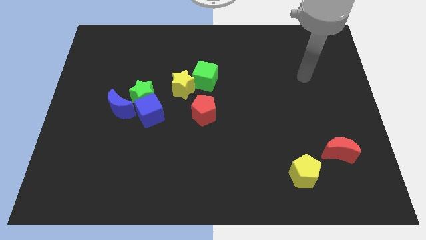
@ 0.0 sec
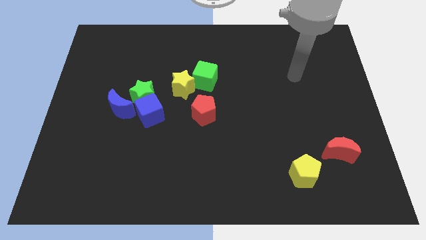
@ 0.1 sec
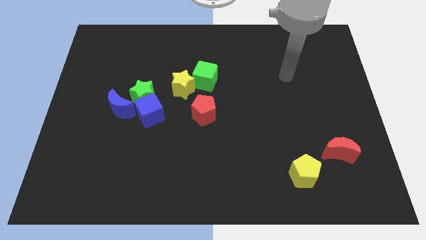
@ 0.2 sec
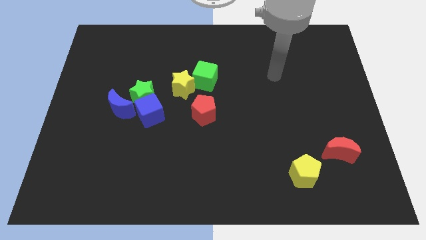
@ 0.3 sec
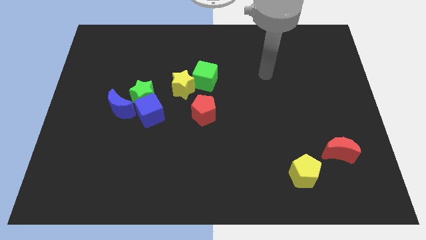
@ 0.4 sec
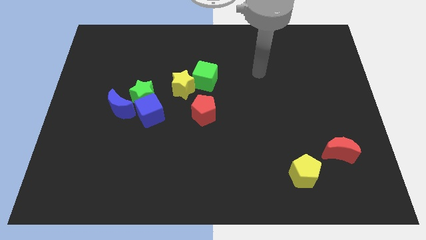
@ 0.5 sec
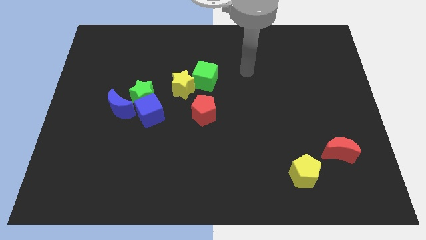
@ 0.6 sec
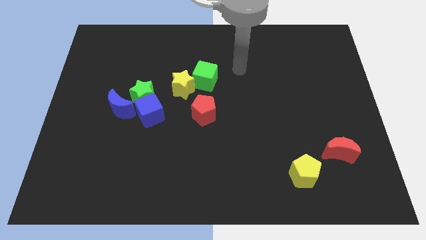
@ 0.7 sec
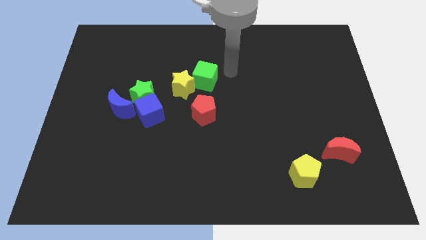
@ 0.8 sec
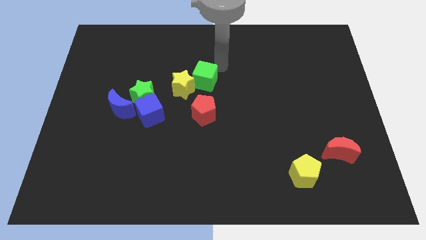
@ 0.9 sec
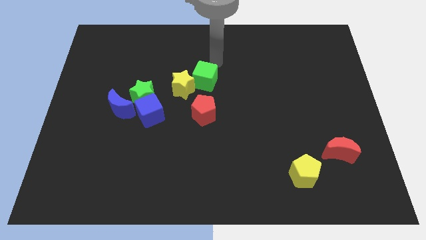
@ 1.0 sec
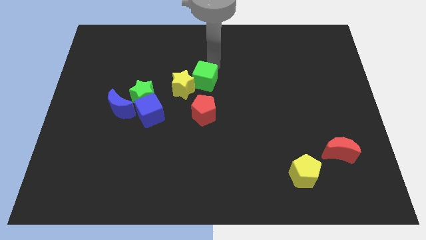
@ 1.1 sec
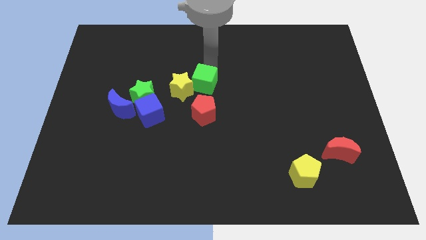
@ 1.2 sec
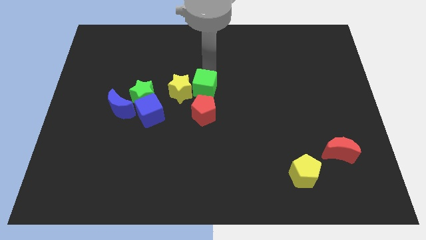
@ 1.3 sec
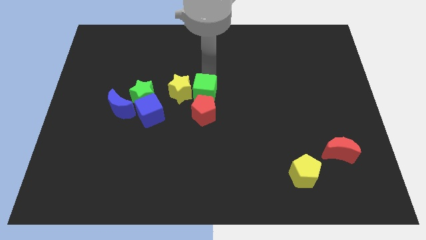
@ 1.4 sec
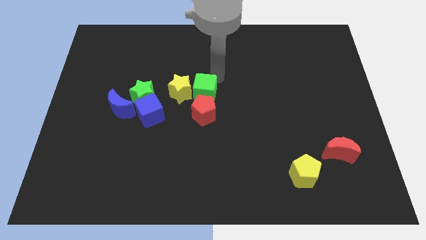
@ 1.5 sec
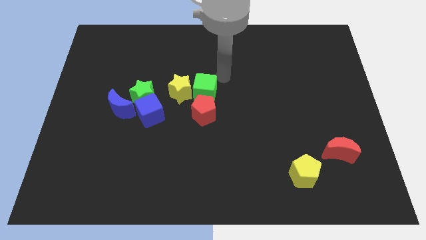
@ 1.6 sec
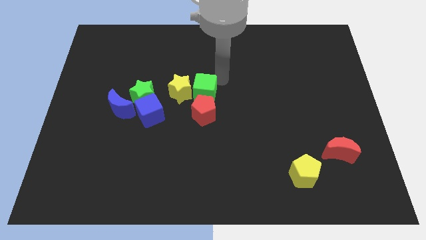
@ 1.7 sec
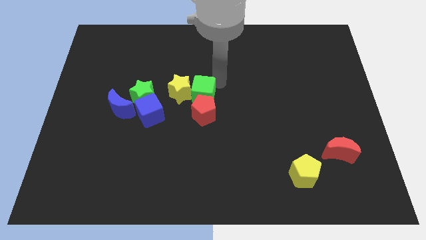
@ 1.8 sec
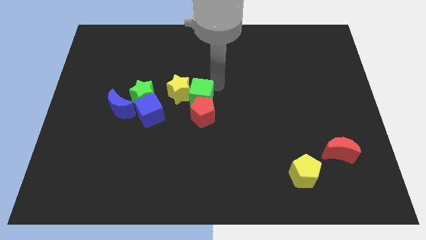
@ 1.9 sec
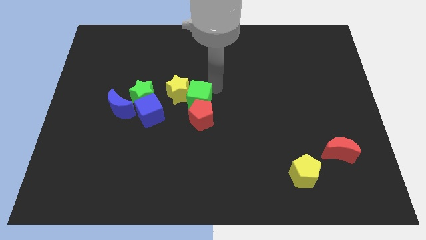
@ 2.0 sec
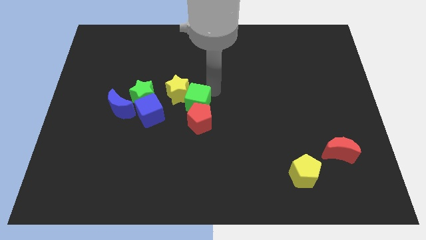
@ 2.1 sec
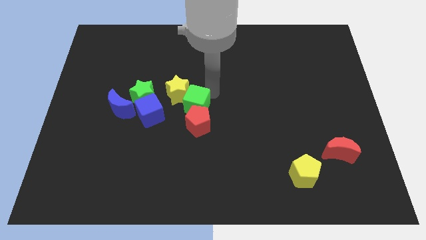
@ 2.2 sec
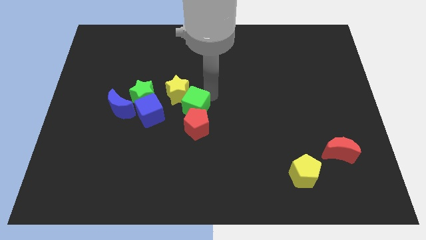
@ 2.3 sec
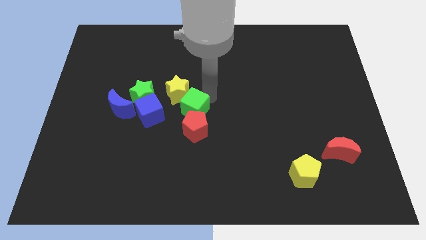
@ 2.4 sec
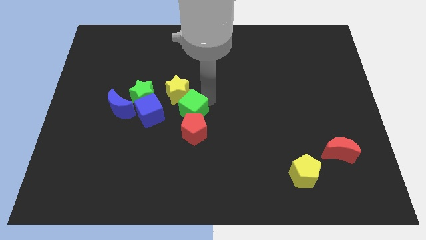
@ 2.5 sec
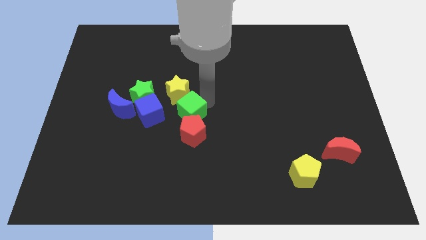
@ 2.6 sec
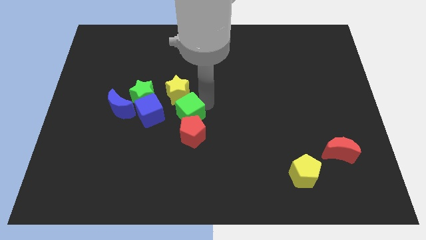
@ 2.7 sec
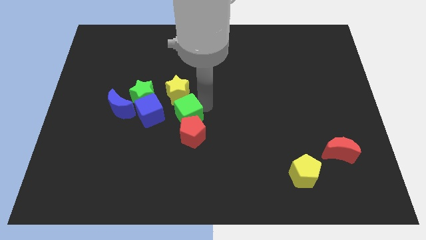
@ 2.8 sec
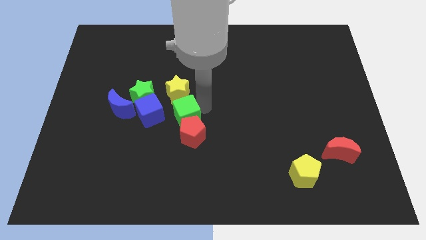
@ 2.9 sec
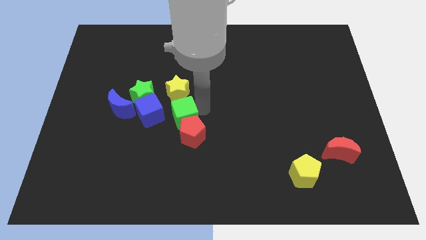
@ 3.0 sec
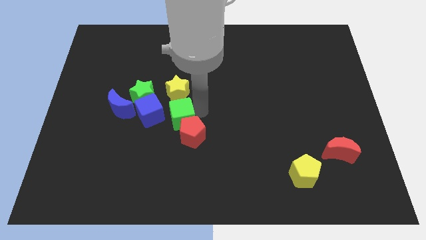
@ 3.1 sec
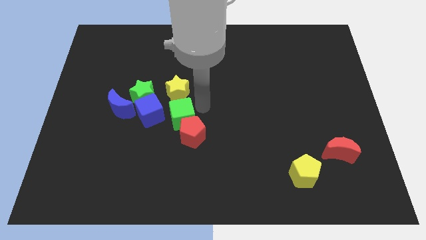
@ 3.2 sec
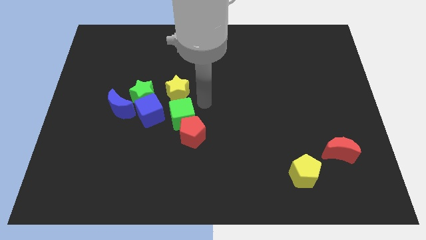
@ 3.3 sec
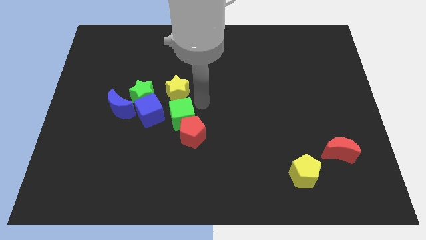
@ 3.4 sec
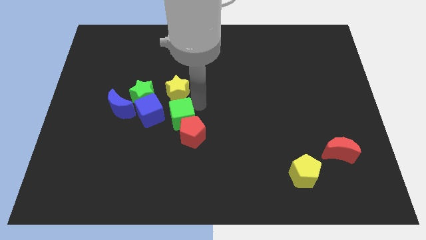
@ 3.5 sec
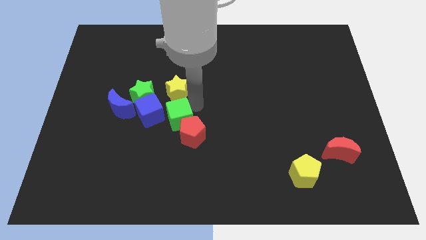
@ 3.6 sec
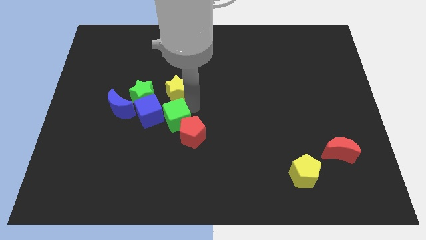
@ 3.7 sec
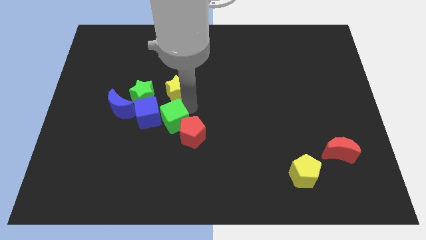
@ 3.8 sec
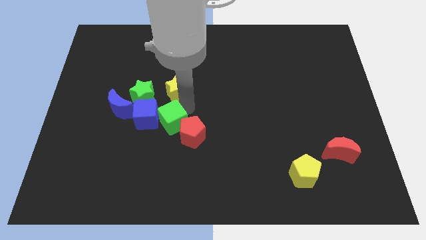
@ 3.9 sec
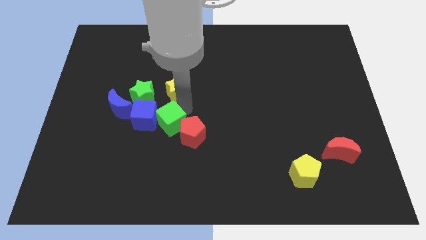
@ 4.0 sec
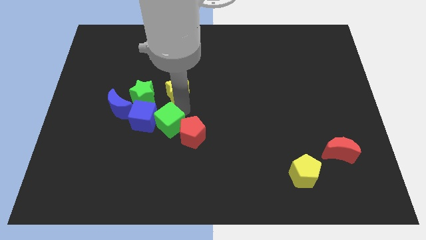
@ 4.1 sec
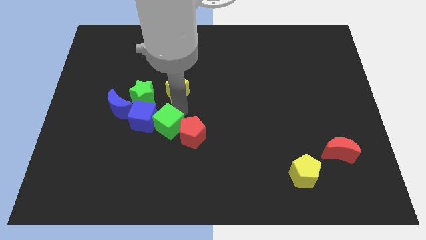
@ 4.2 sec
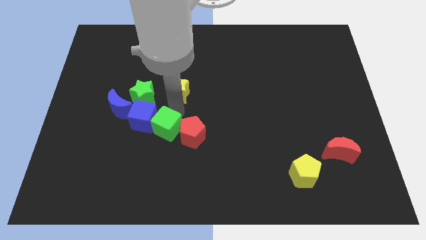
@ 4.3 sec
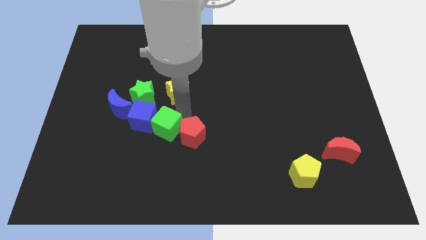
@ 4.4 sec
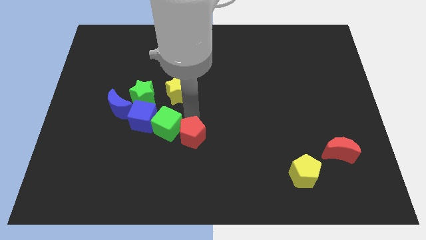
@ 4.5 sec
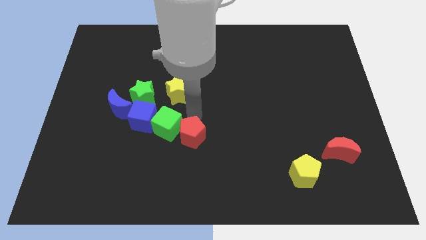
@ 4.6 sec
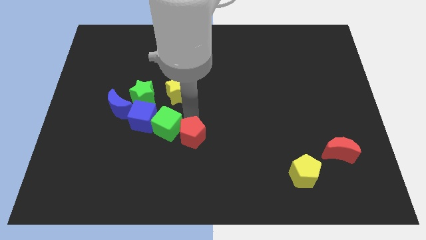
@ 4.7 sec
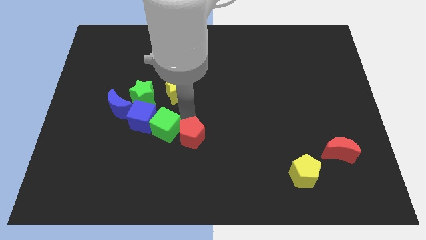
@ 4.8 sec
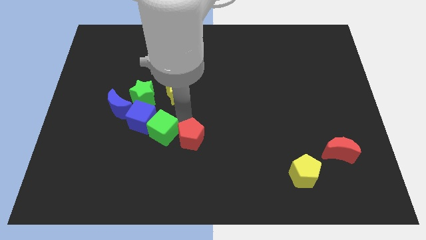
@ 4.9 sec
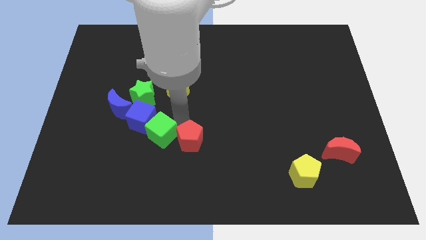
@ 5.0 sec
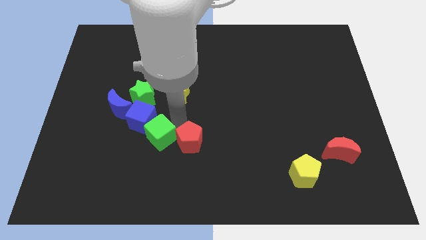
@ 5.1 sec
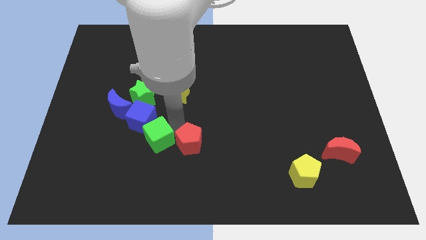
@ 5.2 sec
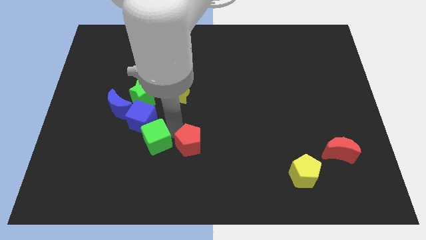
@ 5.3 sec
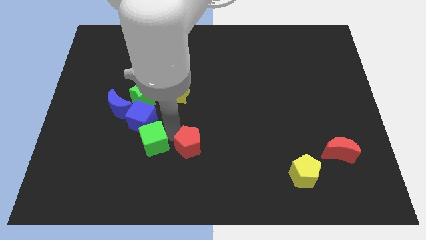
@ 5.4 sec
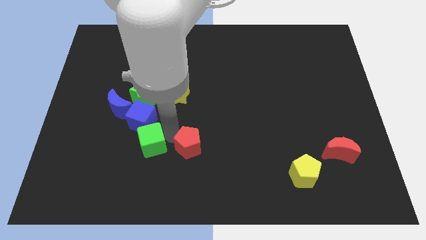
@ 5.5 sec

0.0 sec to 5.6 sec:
slide the green cube downwards and then left

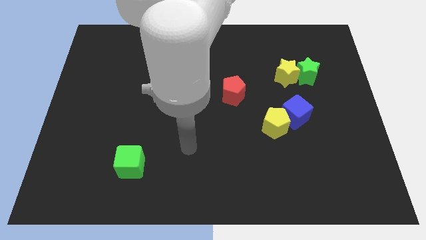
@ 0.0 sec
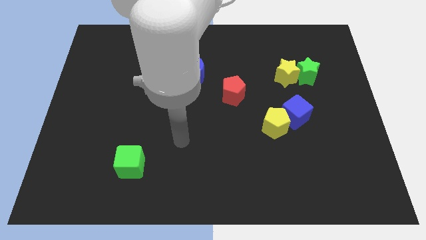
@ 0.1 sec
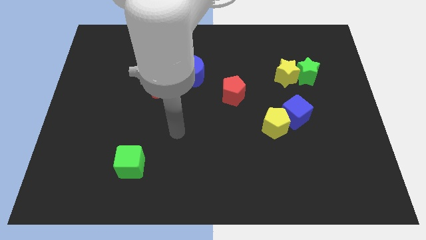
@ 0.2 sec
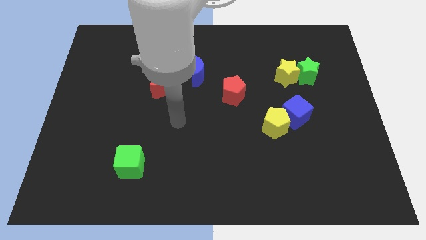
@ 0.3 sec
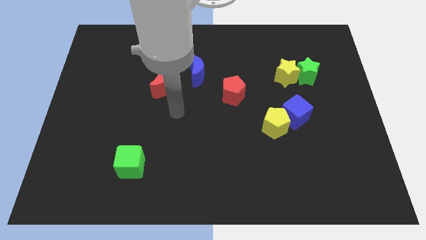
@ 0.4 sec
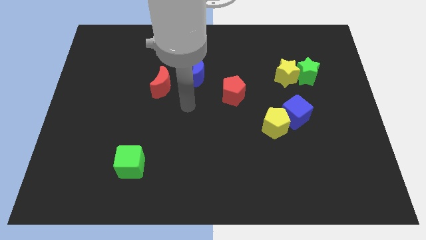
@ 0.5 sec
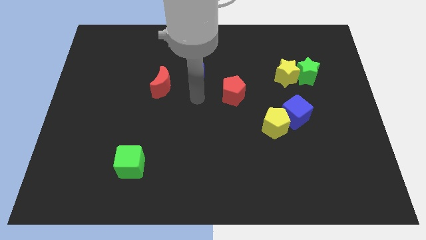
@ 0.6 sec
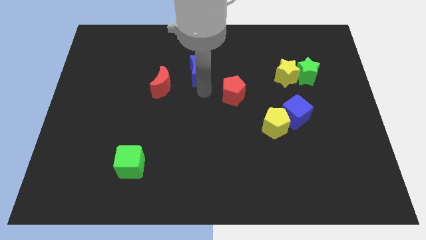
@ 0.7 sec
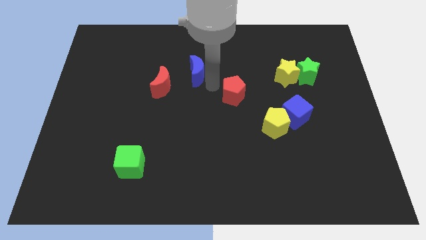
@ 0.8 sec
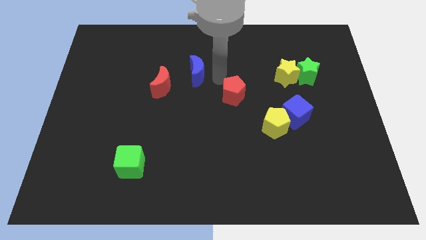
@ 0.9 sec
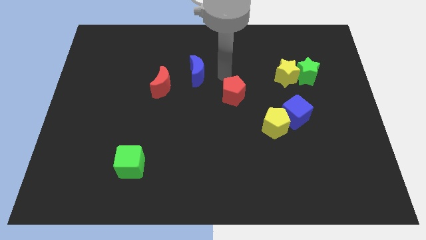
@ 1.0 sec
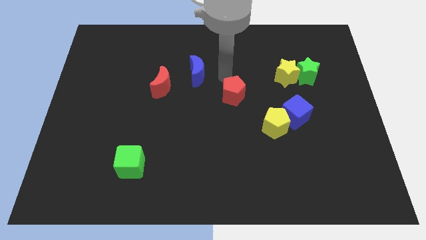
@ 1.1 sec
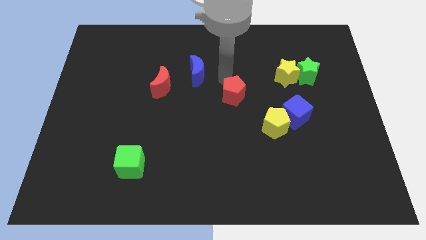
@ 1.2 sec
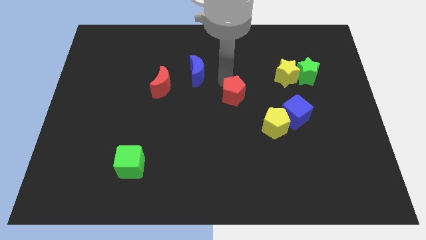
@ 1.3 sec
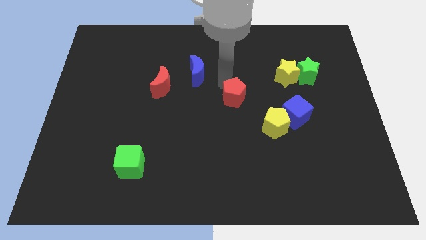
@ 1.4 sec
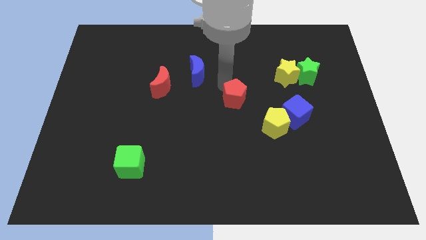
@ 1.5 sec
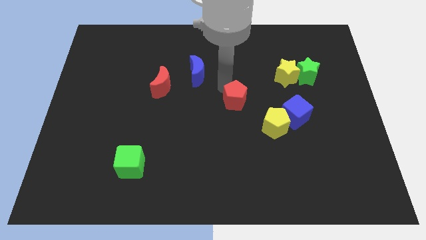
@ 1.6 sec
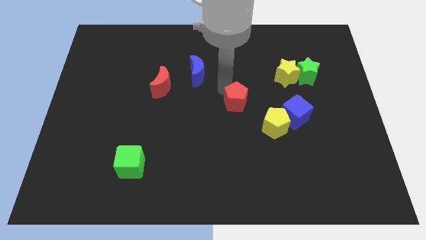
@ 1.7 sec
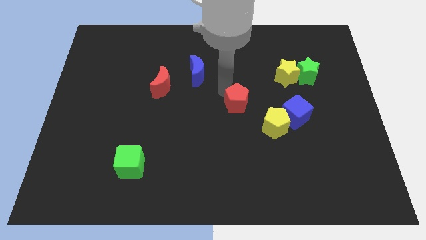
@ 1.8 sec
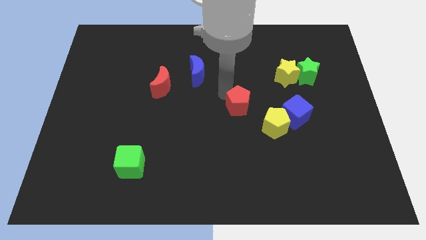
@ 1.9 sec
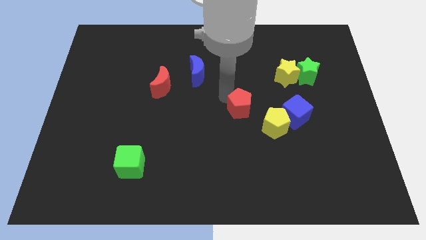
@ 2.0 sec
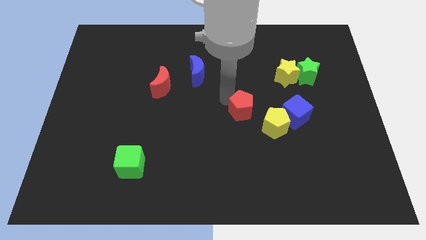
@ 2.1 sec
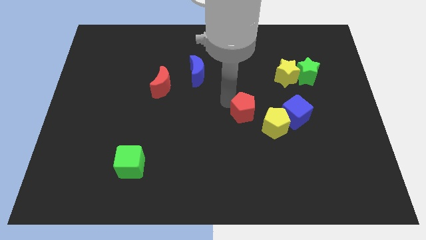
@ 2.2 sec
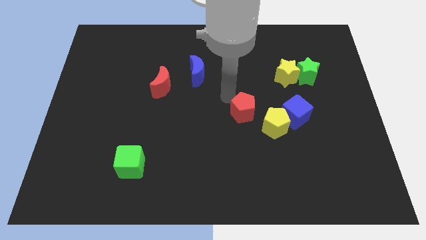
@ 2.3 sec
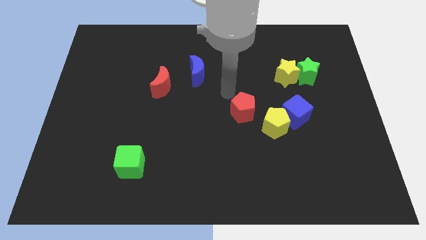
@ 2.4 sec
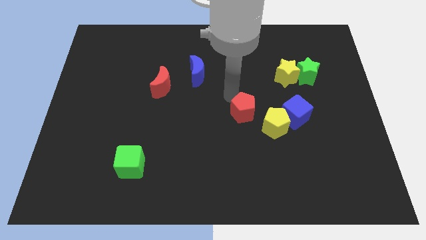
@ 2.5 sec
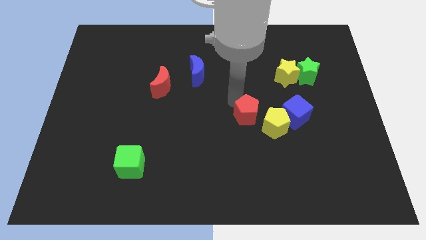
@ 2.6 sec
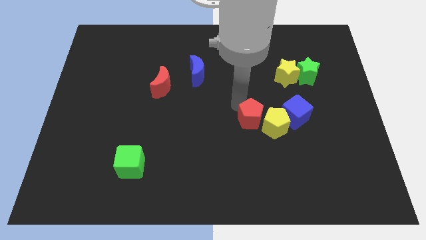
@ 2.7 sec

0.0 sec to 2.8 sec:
slide the red pentagon a little down and right
